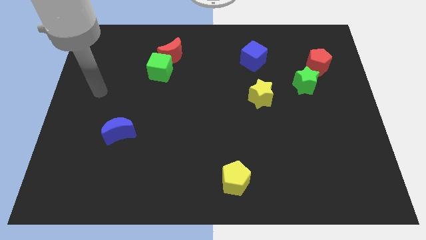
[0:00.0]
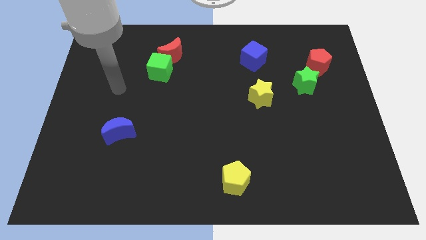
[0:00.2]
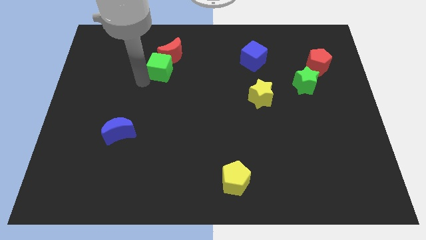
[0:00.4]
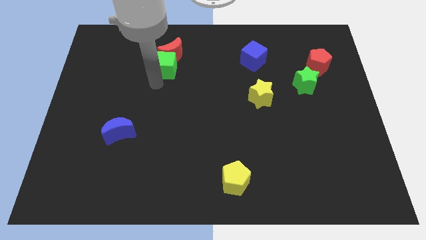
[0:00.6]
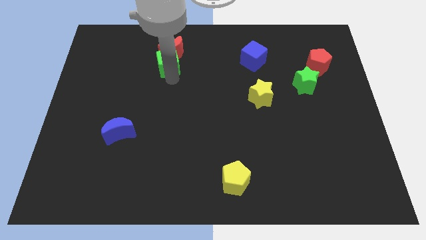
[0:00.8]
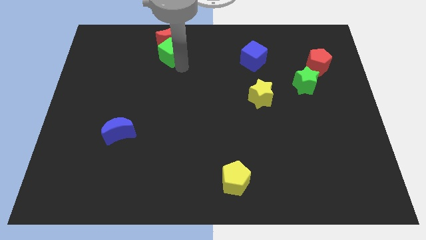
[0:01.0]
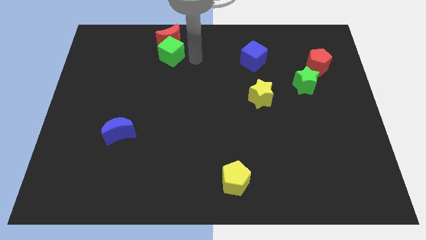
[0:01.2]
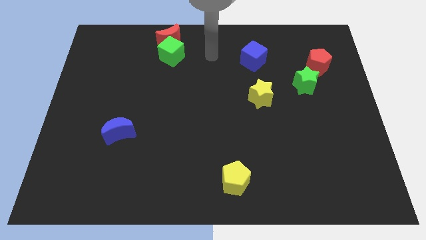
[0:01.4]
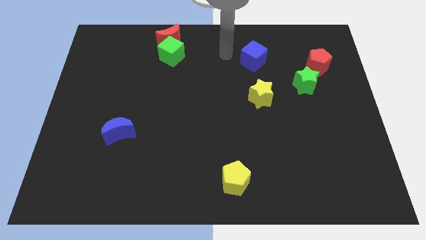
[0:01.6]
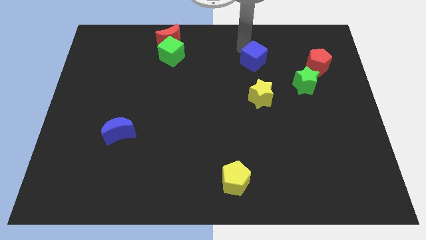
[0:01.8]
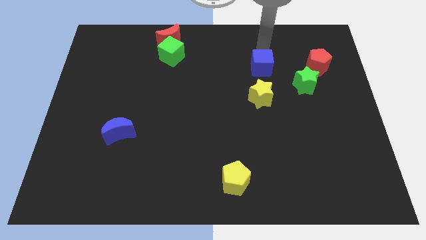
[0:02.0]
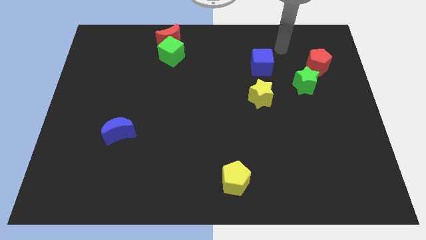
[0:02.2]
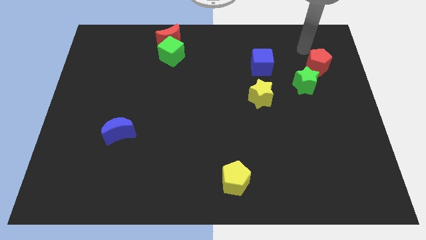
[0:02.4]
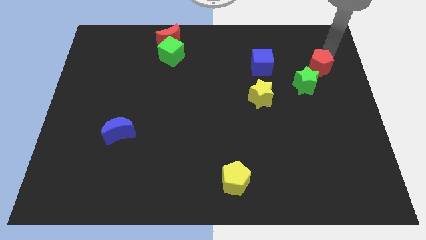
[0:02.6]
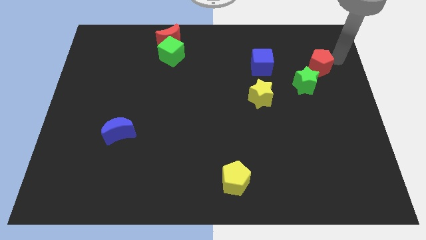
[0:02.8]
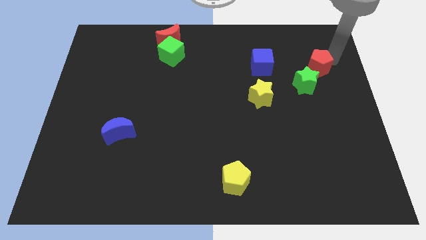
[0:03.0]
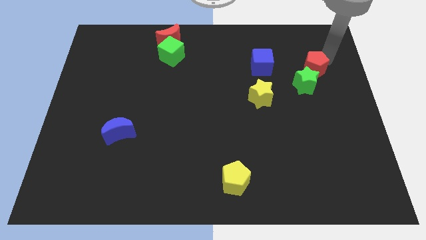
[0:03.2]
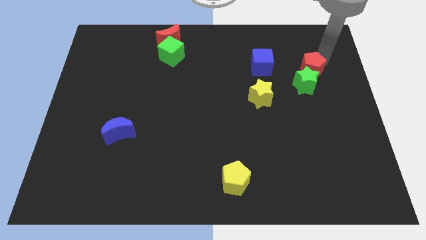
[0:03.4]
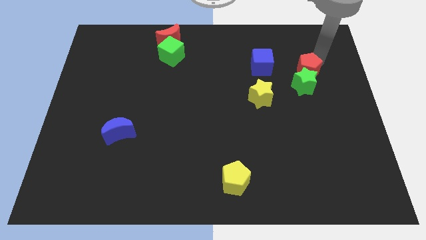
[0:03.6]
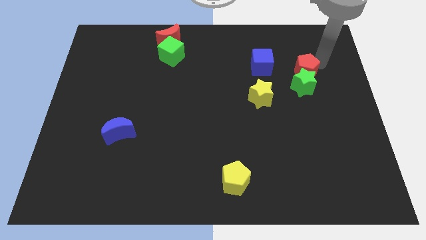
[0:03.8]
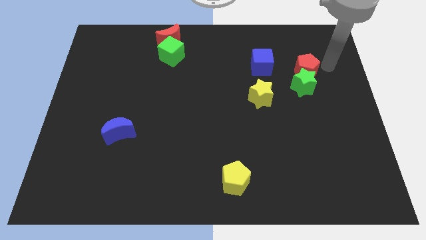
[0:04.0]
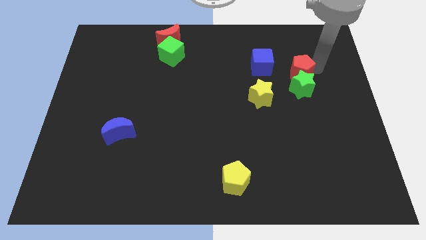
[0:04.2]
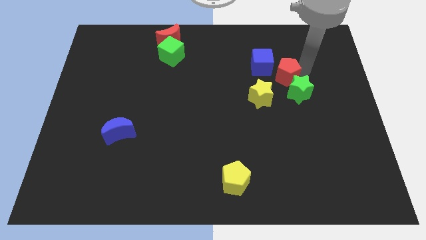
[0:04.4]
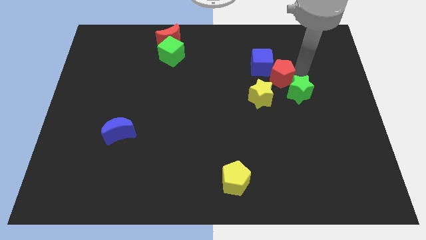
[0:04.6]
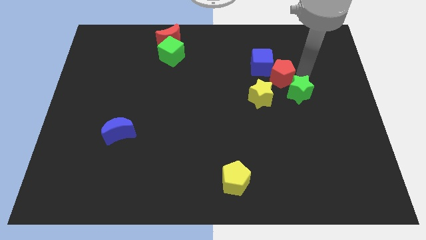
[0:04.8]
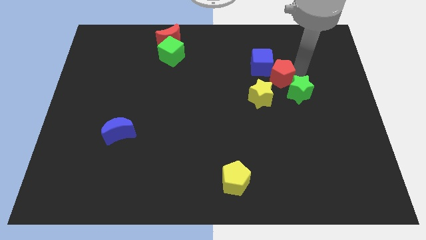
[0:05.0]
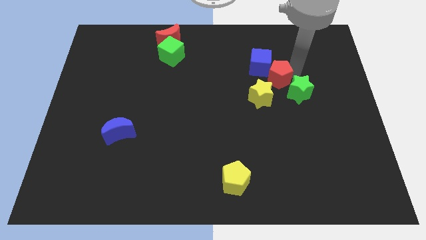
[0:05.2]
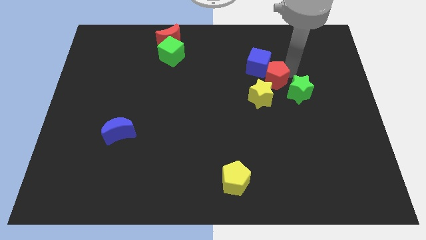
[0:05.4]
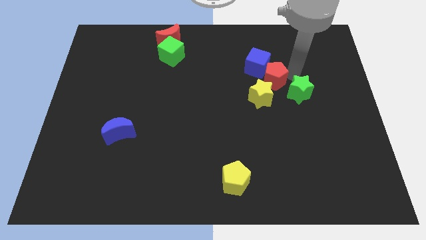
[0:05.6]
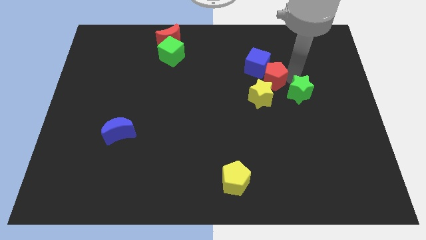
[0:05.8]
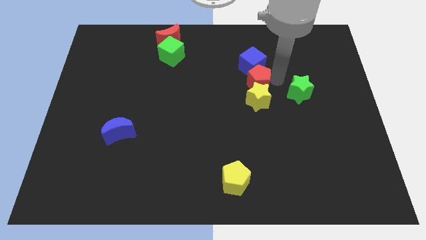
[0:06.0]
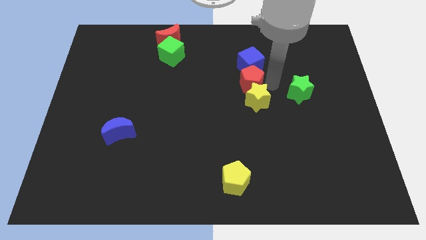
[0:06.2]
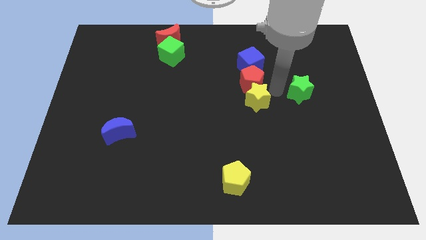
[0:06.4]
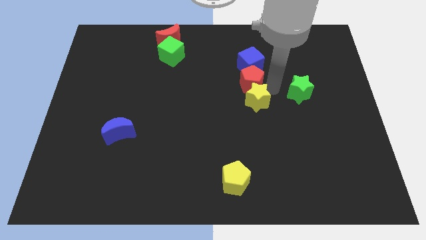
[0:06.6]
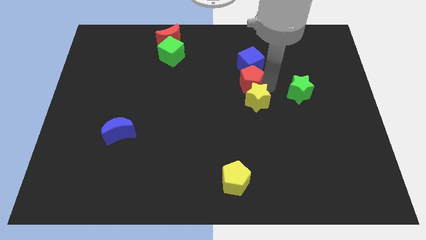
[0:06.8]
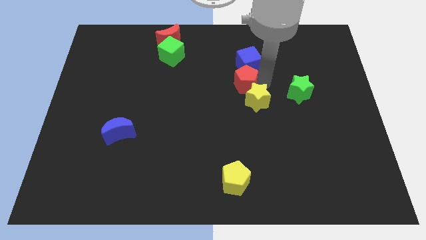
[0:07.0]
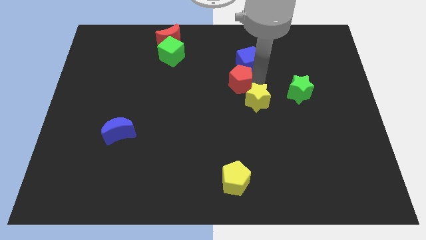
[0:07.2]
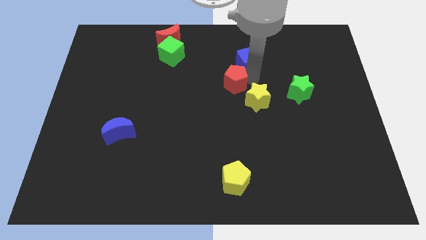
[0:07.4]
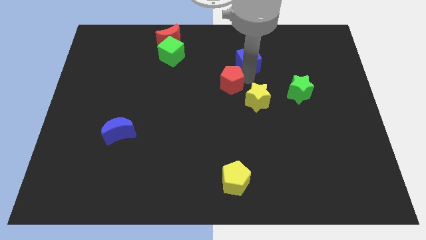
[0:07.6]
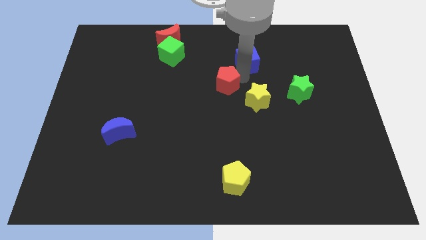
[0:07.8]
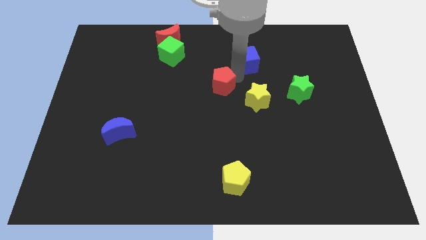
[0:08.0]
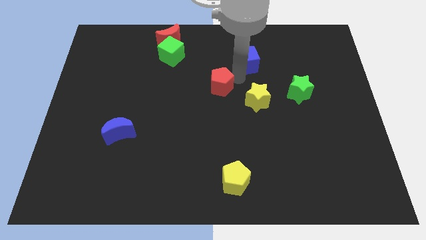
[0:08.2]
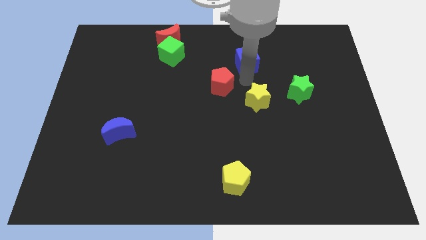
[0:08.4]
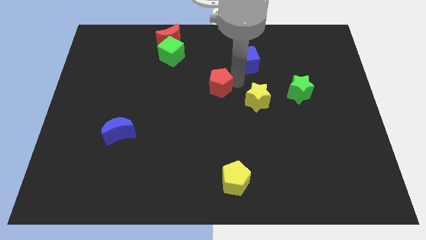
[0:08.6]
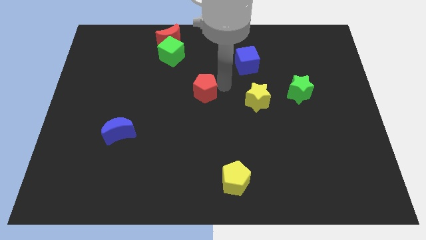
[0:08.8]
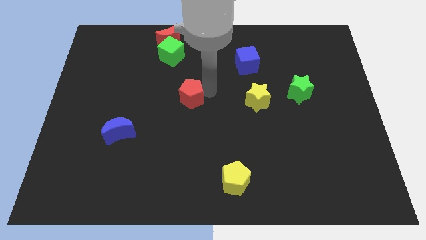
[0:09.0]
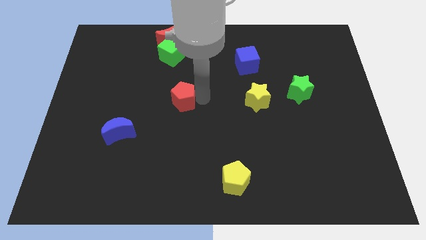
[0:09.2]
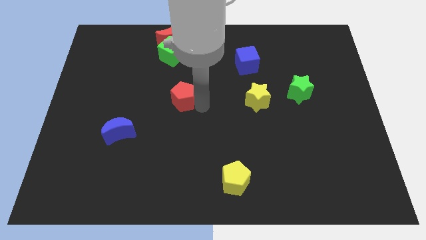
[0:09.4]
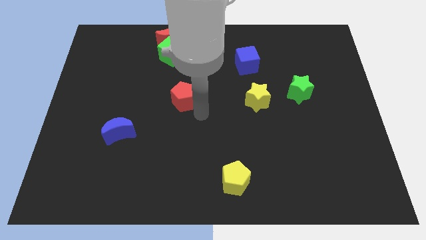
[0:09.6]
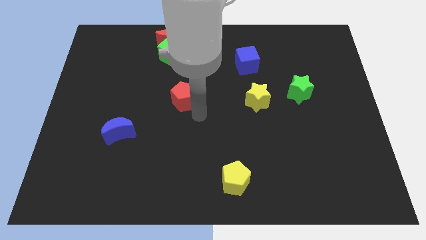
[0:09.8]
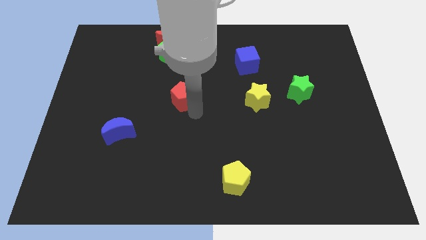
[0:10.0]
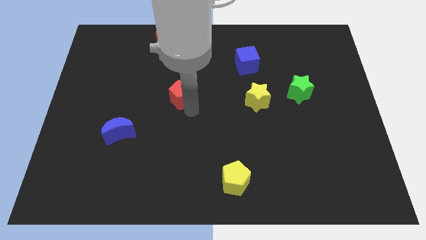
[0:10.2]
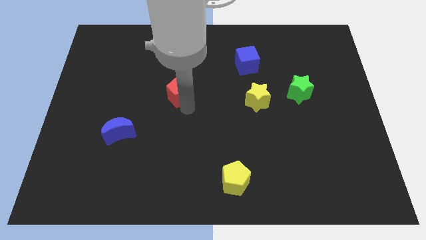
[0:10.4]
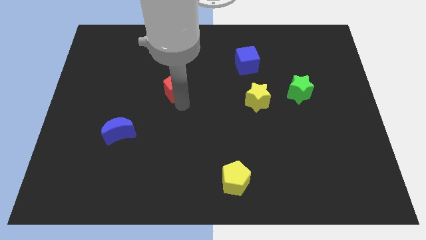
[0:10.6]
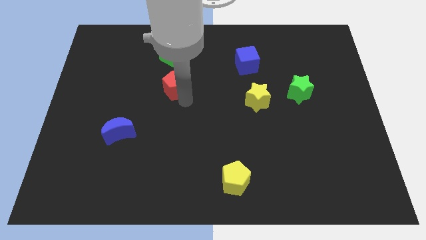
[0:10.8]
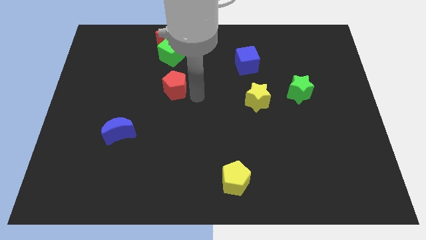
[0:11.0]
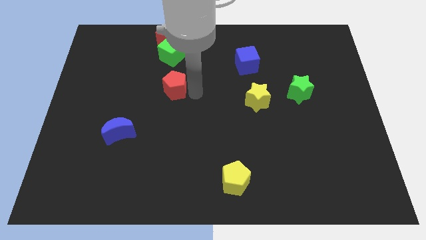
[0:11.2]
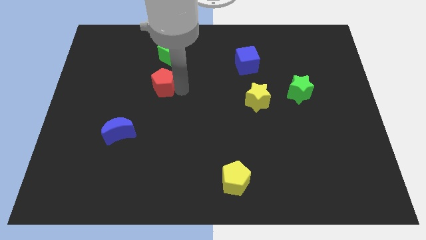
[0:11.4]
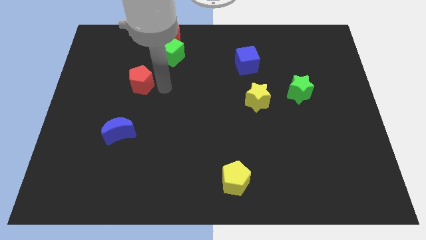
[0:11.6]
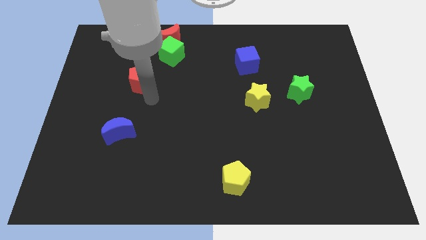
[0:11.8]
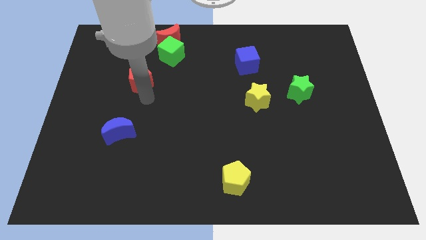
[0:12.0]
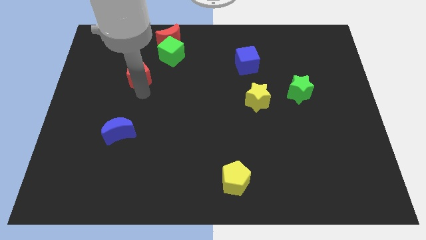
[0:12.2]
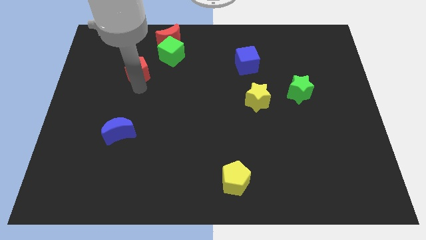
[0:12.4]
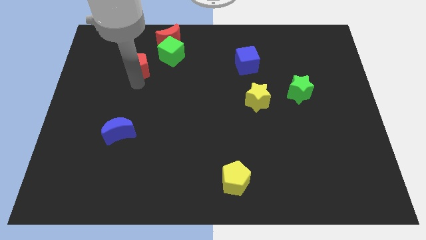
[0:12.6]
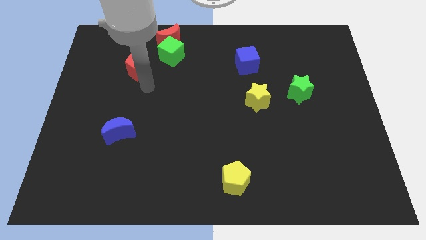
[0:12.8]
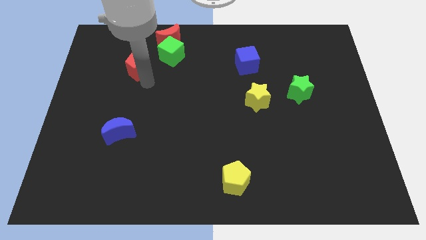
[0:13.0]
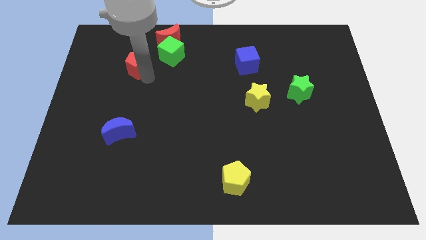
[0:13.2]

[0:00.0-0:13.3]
slide the red pentagon just left of the green cube
